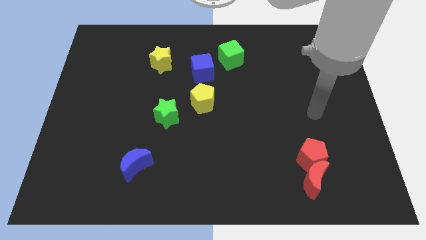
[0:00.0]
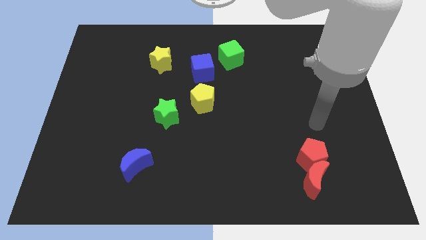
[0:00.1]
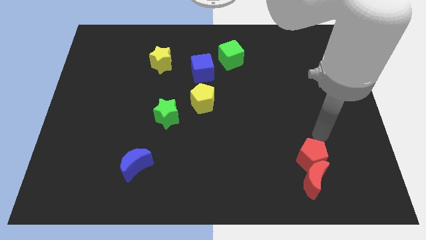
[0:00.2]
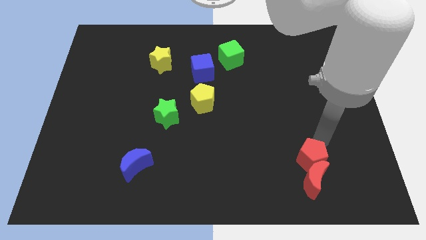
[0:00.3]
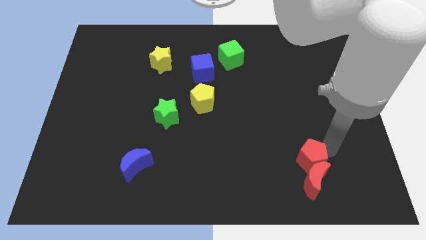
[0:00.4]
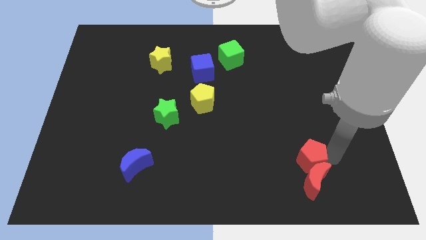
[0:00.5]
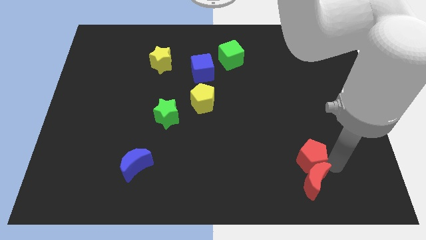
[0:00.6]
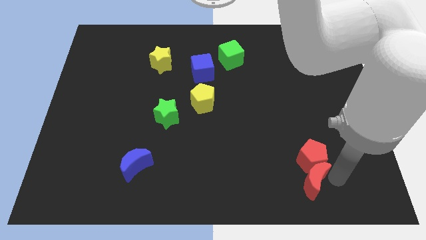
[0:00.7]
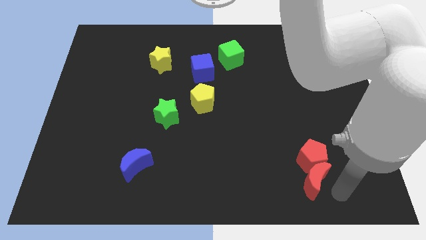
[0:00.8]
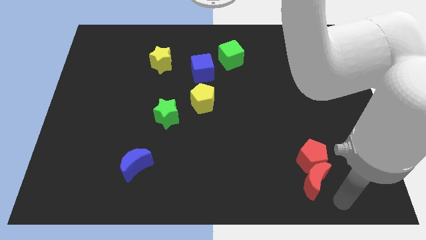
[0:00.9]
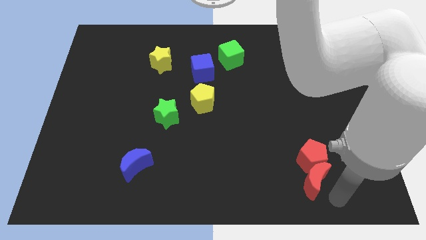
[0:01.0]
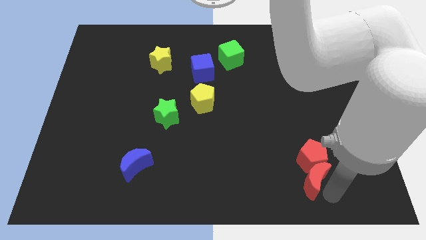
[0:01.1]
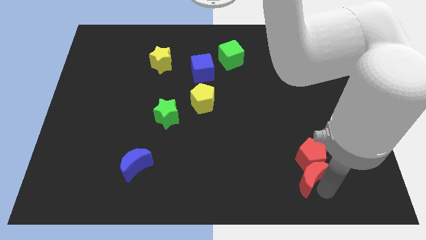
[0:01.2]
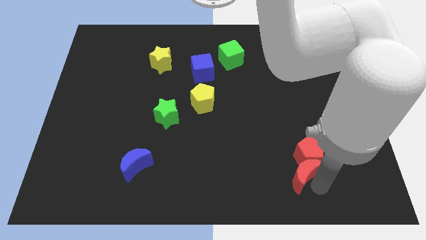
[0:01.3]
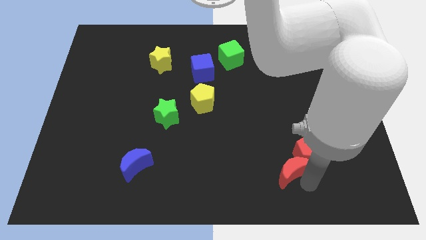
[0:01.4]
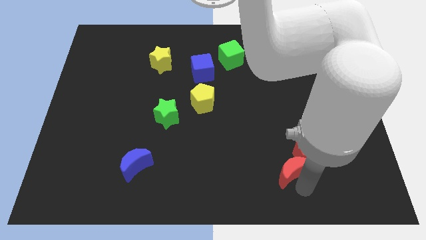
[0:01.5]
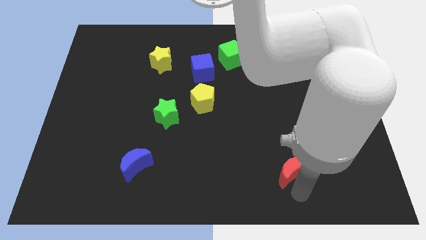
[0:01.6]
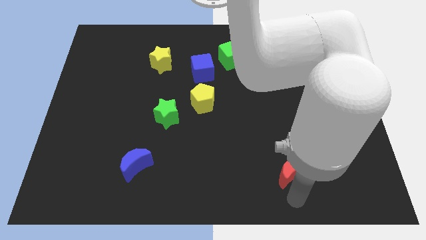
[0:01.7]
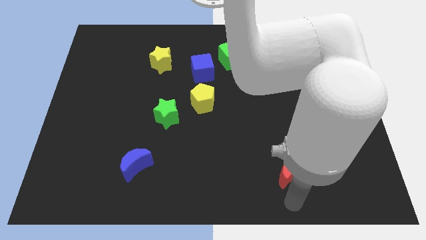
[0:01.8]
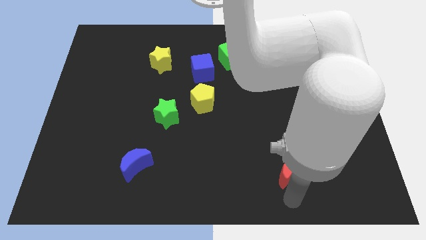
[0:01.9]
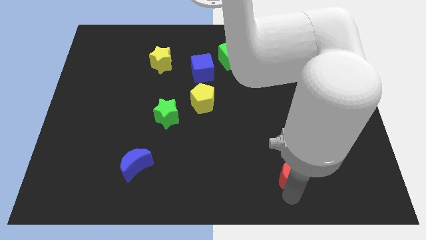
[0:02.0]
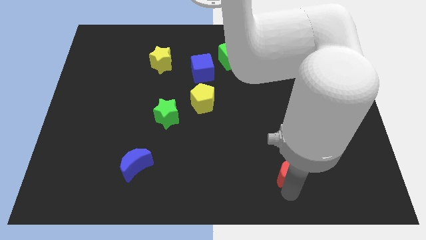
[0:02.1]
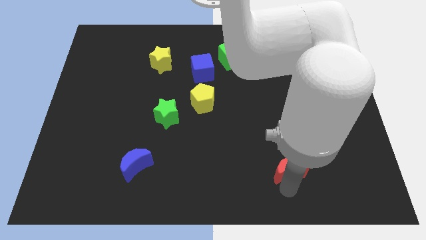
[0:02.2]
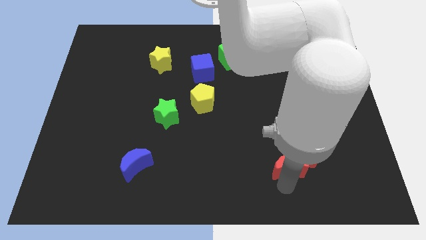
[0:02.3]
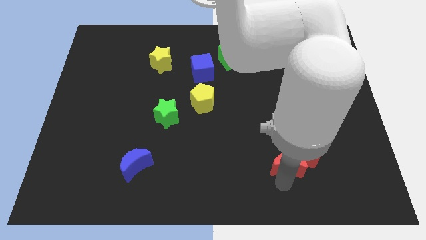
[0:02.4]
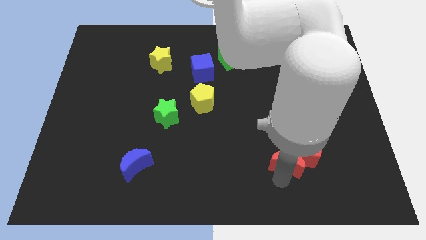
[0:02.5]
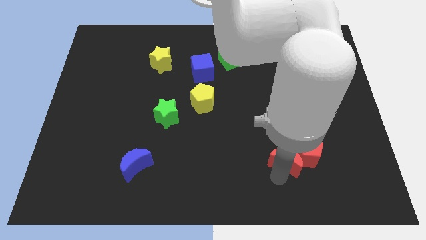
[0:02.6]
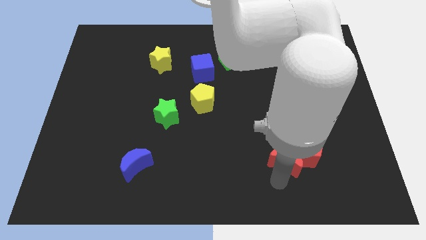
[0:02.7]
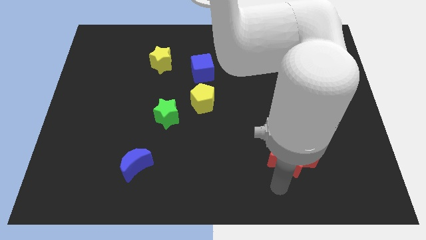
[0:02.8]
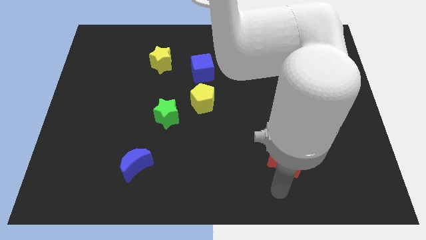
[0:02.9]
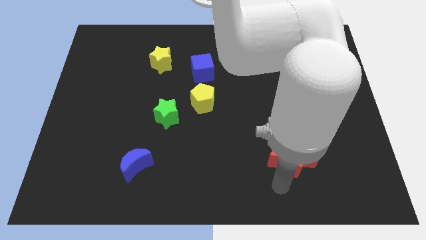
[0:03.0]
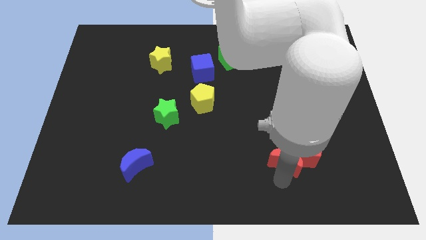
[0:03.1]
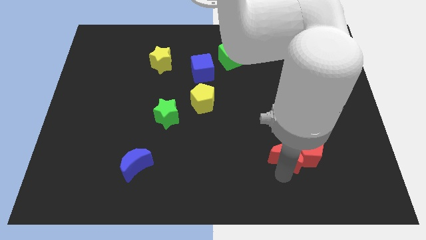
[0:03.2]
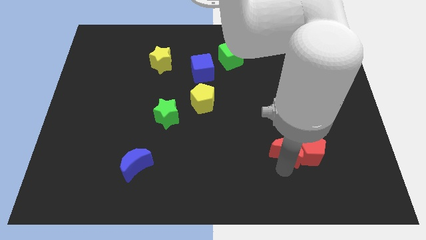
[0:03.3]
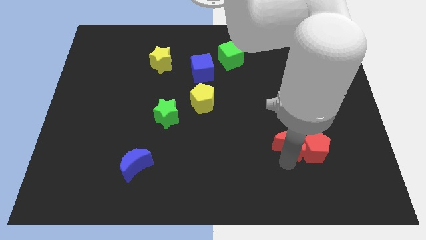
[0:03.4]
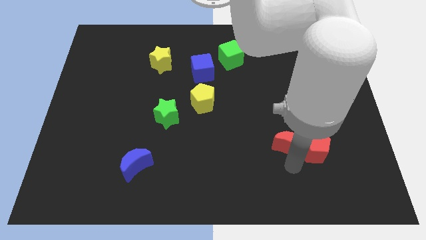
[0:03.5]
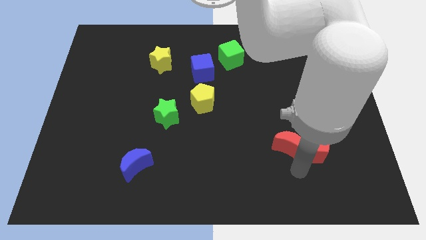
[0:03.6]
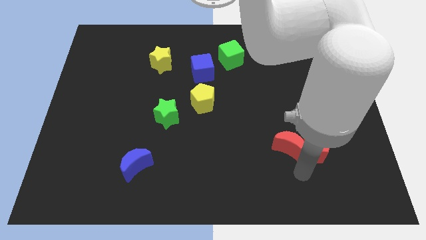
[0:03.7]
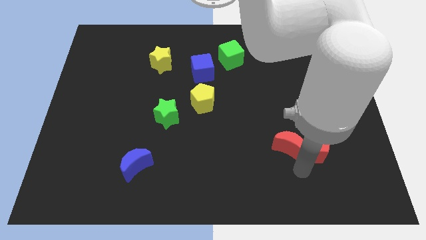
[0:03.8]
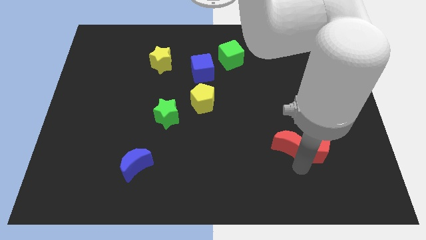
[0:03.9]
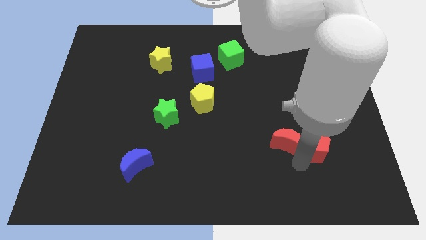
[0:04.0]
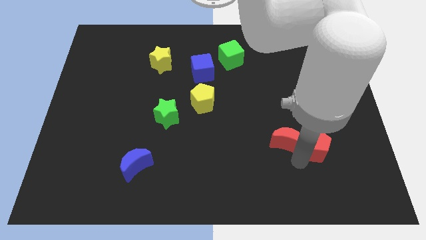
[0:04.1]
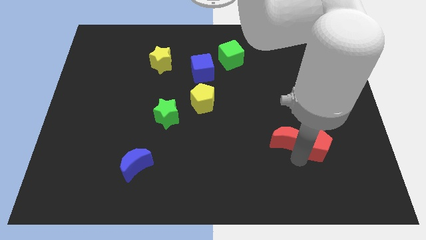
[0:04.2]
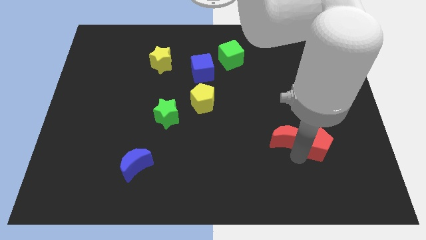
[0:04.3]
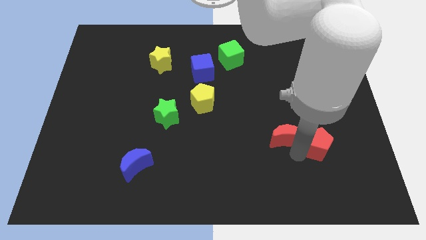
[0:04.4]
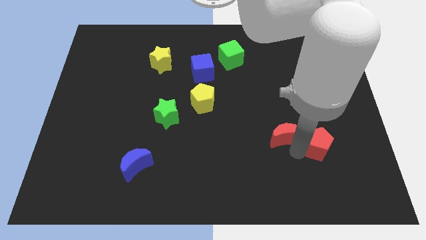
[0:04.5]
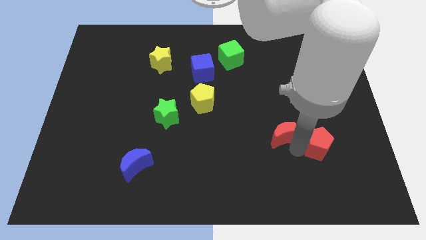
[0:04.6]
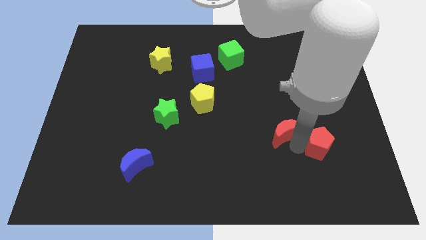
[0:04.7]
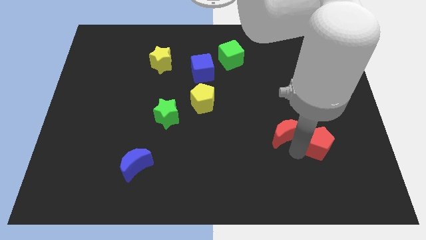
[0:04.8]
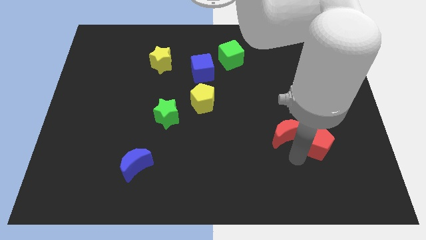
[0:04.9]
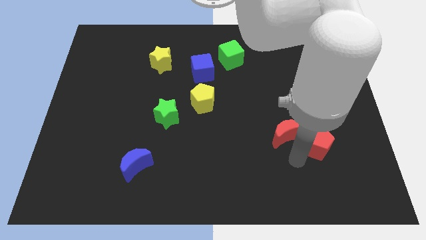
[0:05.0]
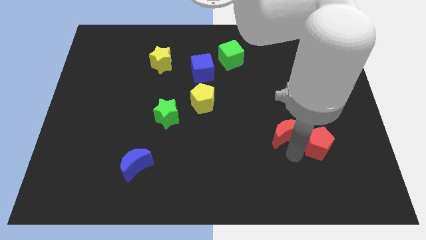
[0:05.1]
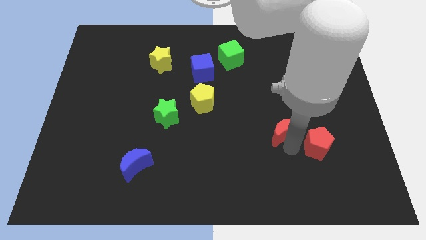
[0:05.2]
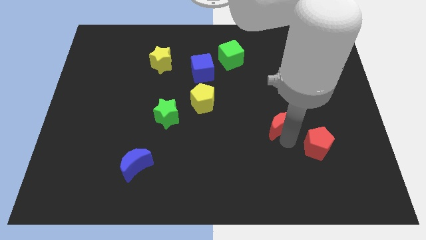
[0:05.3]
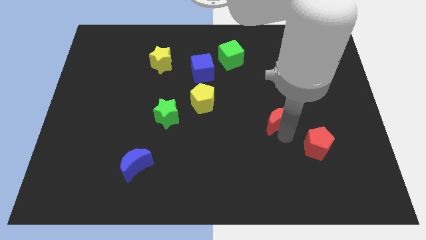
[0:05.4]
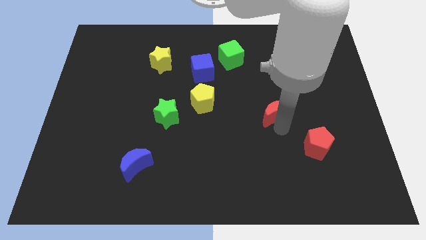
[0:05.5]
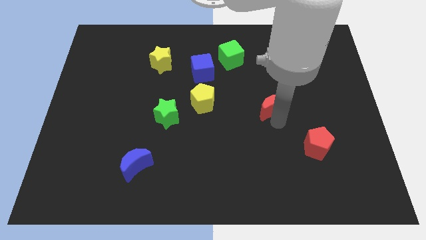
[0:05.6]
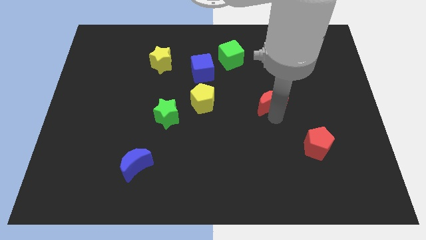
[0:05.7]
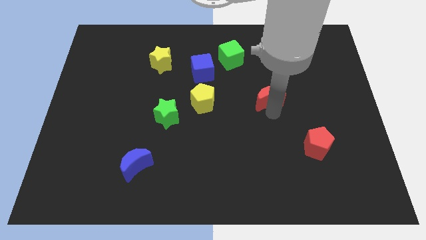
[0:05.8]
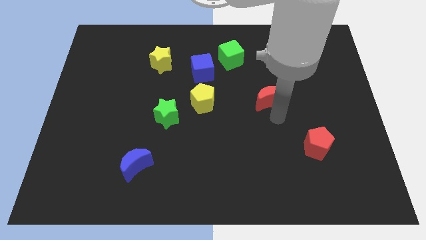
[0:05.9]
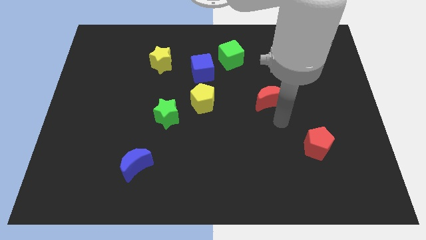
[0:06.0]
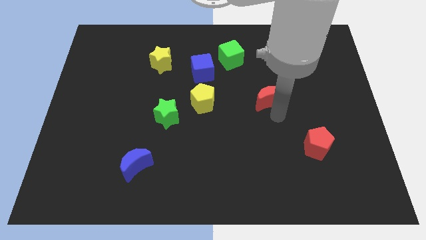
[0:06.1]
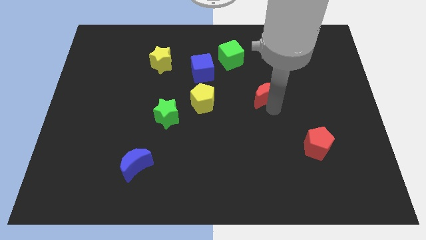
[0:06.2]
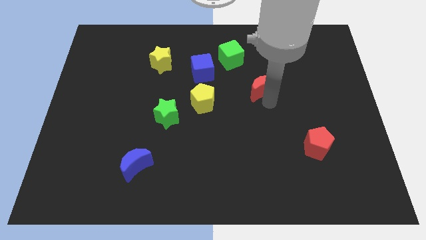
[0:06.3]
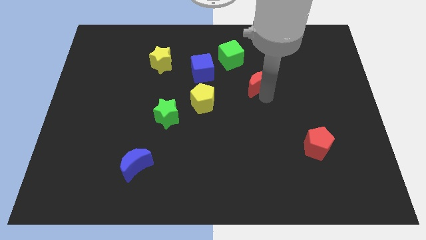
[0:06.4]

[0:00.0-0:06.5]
put the red moon to the bottom right of the green cube

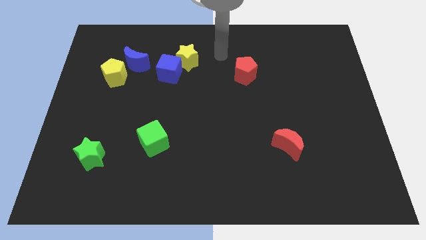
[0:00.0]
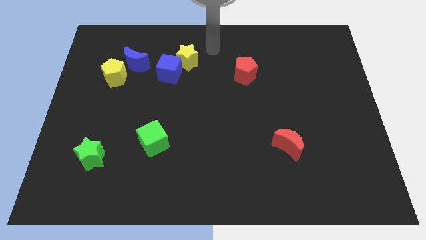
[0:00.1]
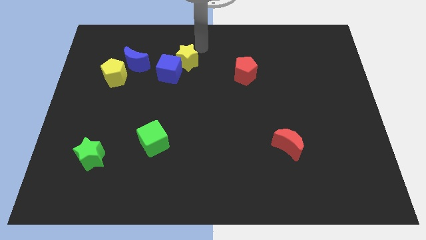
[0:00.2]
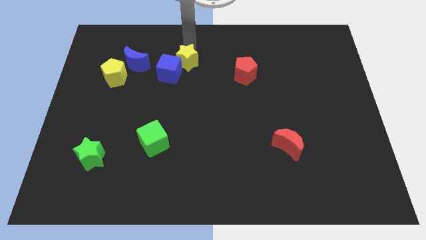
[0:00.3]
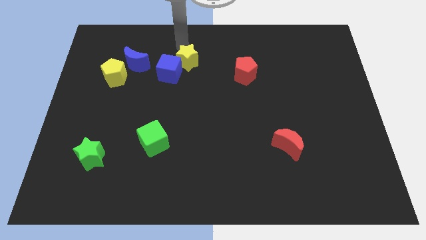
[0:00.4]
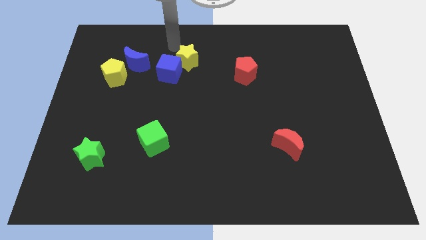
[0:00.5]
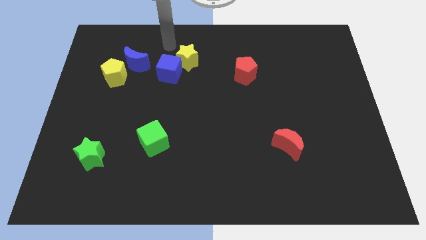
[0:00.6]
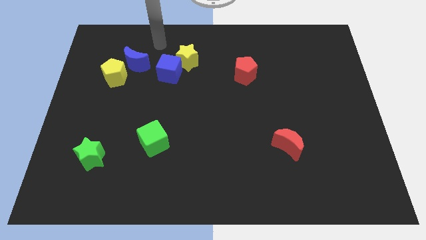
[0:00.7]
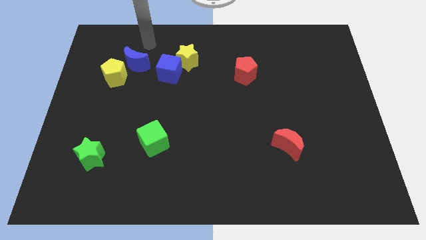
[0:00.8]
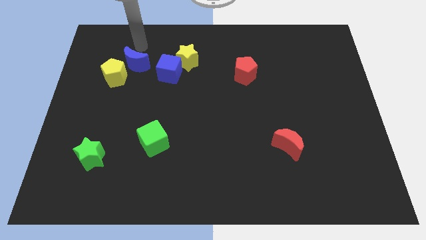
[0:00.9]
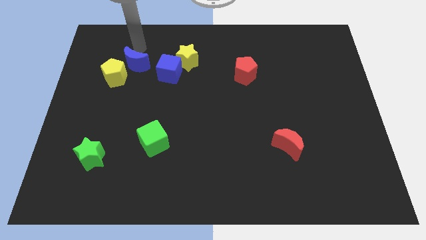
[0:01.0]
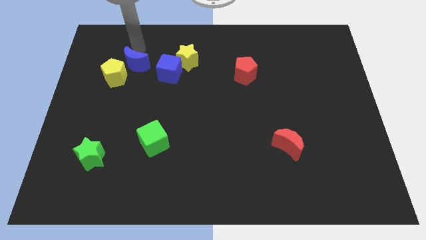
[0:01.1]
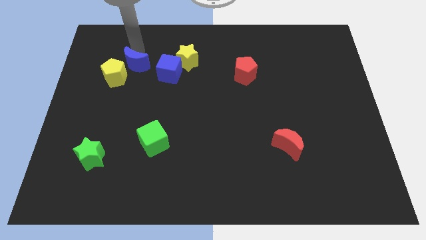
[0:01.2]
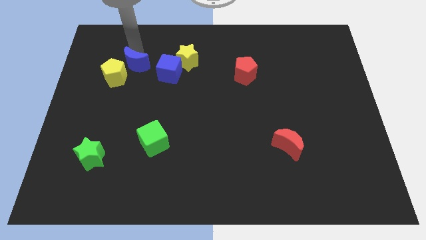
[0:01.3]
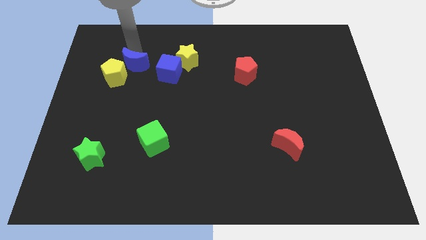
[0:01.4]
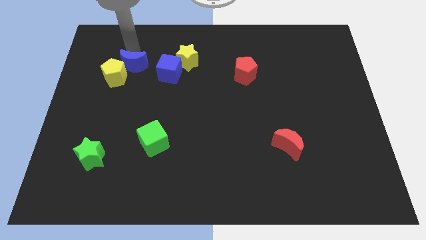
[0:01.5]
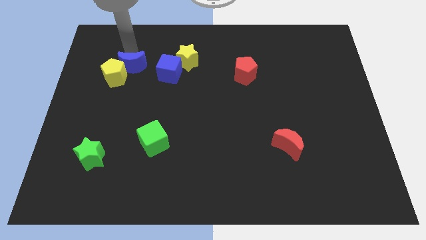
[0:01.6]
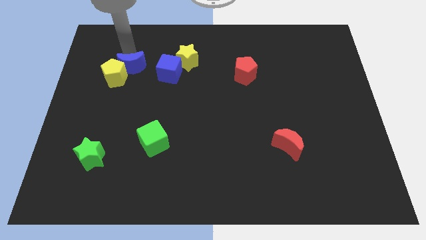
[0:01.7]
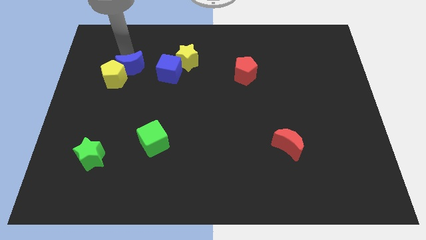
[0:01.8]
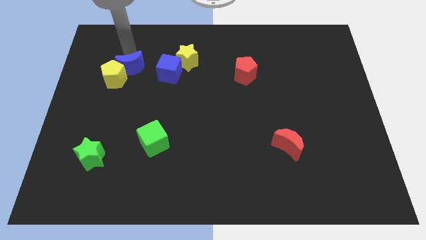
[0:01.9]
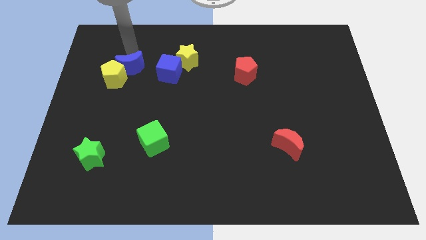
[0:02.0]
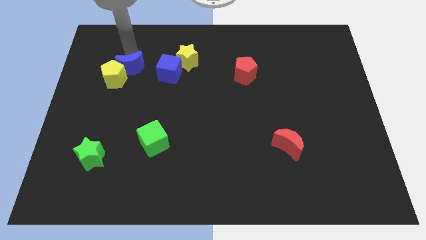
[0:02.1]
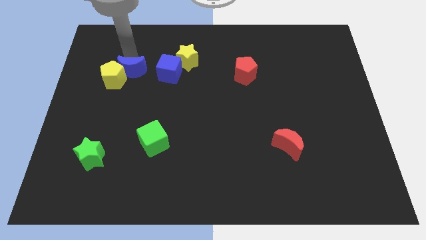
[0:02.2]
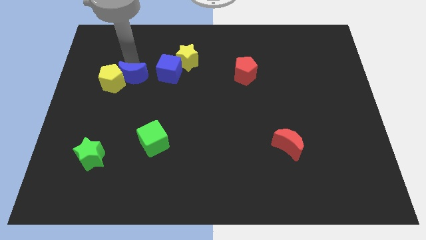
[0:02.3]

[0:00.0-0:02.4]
push the blue moon to the bottom right side of the yellow pentagon
